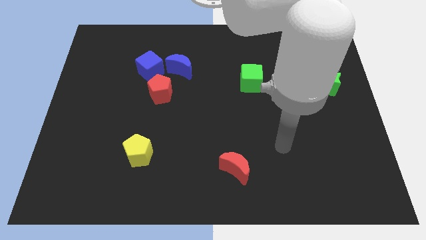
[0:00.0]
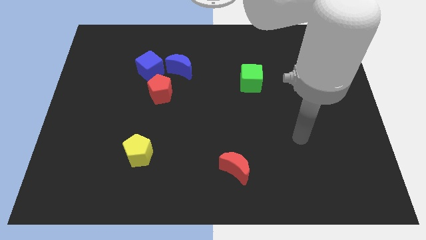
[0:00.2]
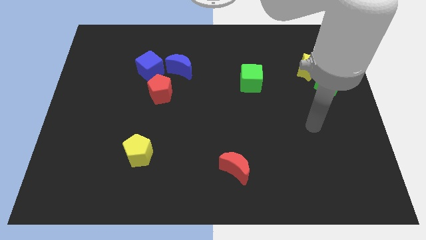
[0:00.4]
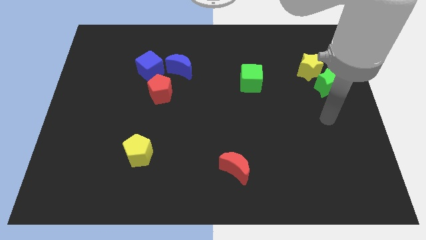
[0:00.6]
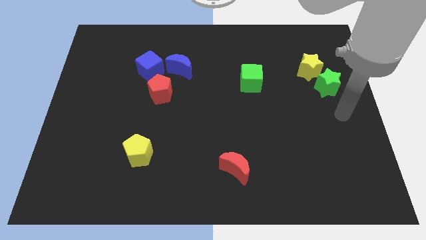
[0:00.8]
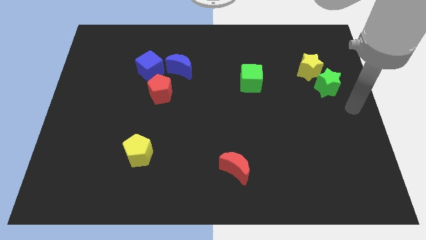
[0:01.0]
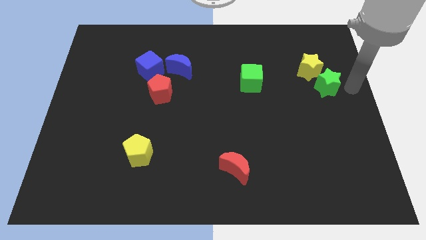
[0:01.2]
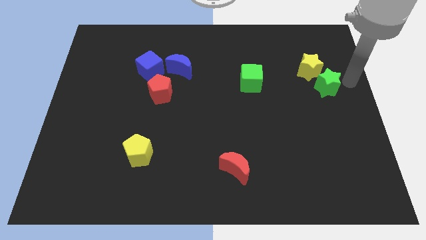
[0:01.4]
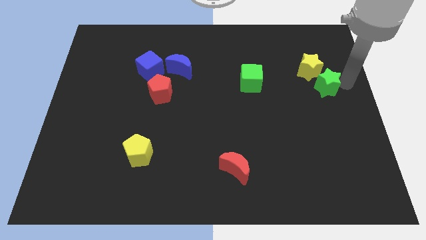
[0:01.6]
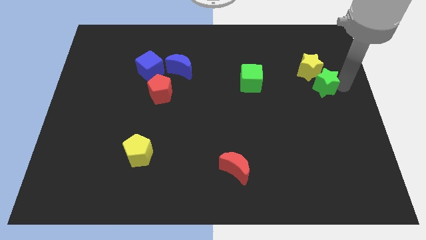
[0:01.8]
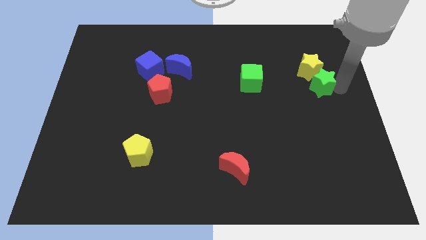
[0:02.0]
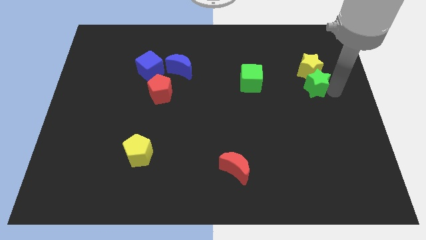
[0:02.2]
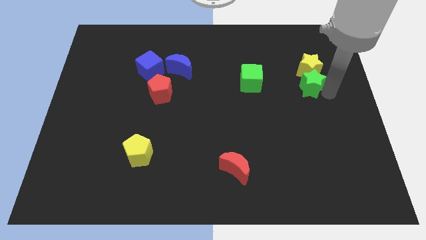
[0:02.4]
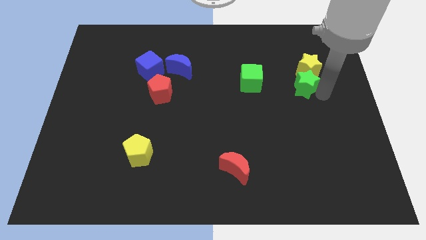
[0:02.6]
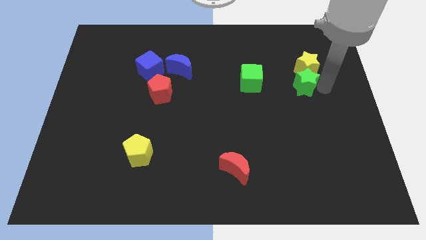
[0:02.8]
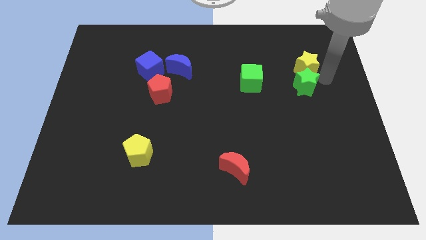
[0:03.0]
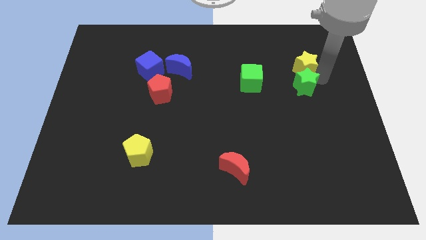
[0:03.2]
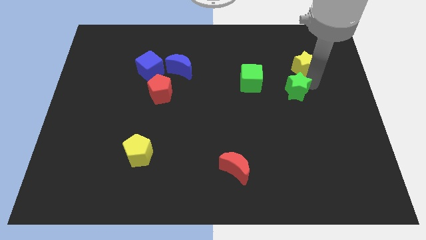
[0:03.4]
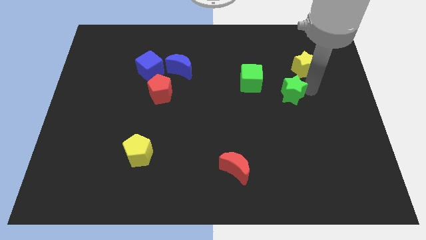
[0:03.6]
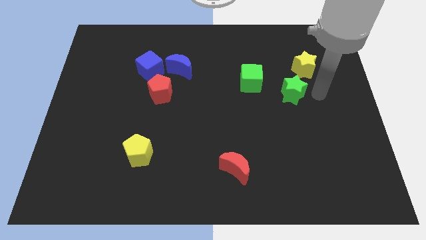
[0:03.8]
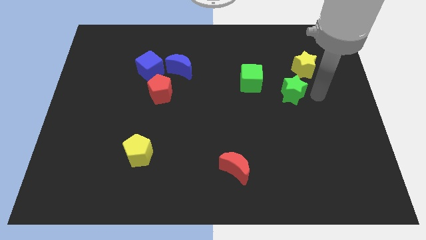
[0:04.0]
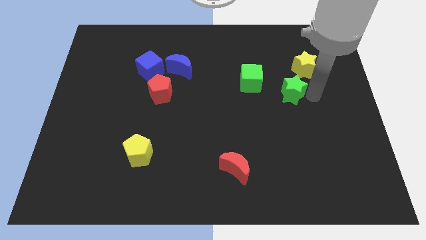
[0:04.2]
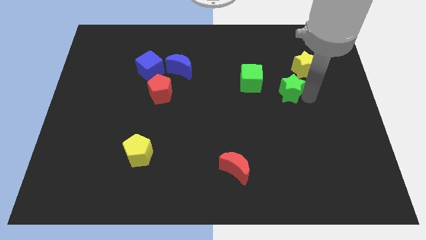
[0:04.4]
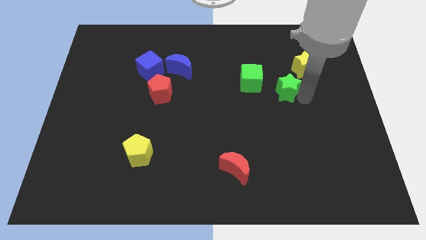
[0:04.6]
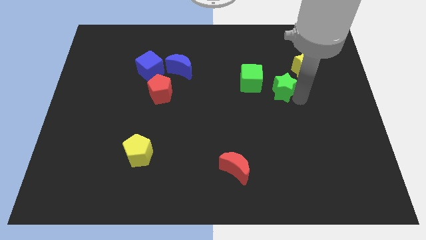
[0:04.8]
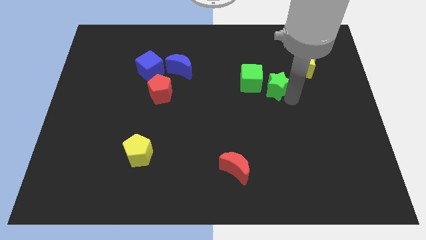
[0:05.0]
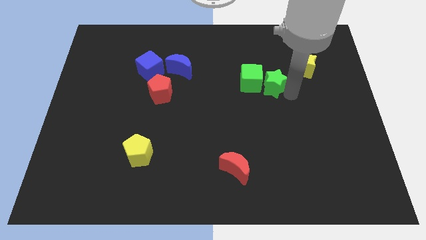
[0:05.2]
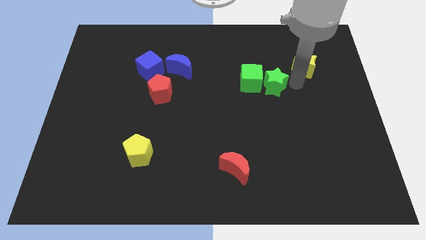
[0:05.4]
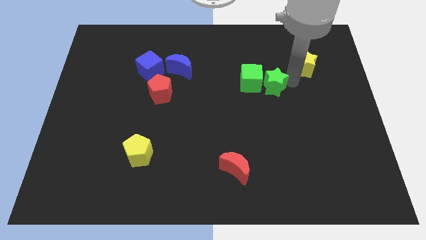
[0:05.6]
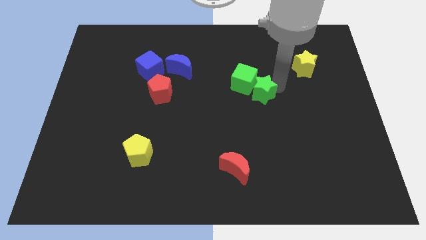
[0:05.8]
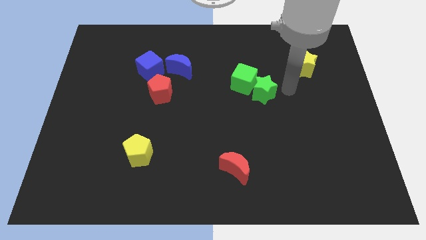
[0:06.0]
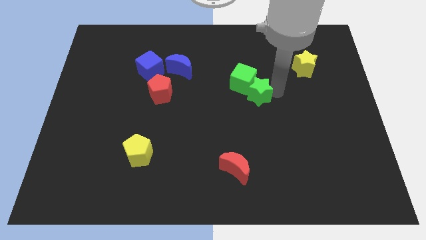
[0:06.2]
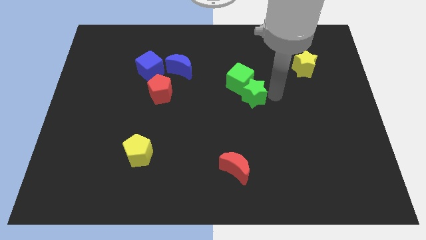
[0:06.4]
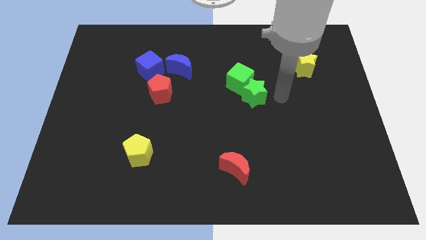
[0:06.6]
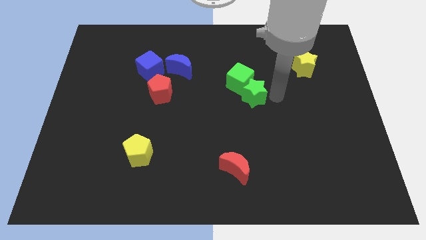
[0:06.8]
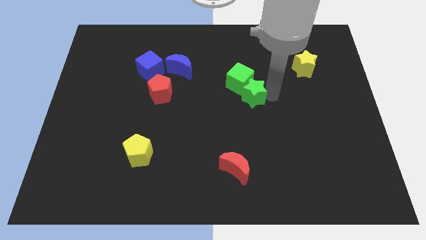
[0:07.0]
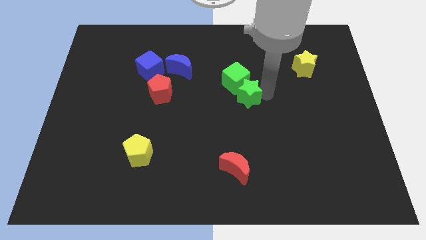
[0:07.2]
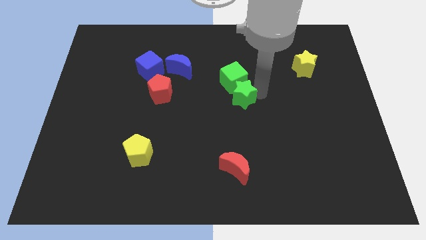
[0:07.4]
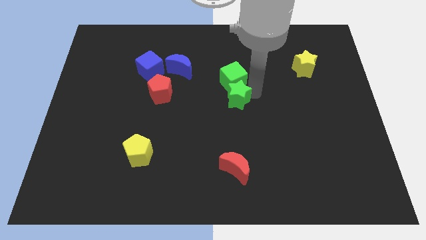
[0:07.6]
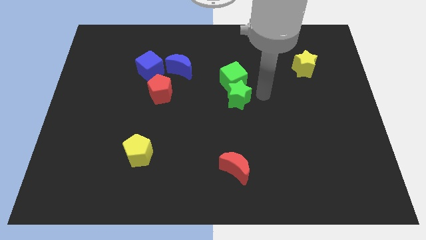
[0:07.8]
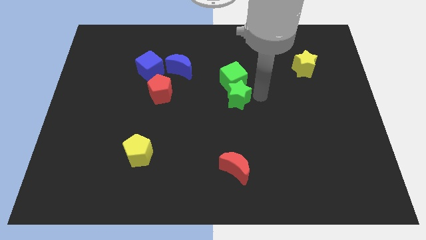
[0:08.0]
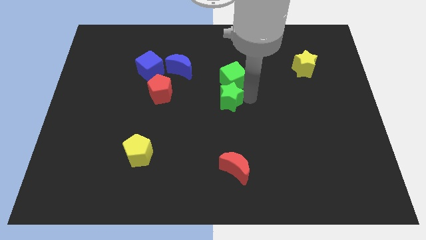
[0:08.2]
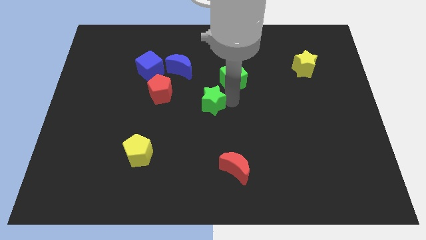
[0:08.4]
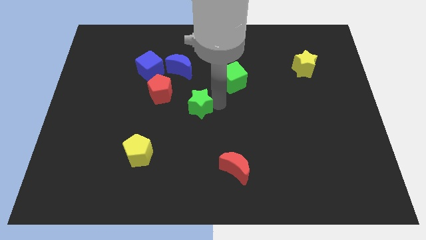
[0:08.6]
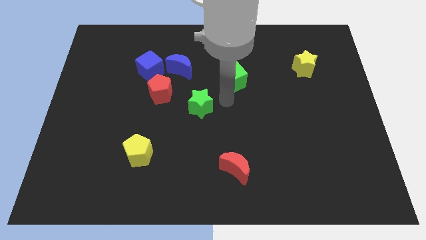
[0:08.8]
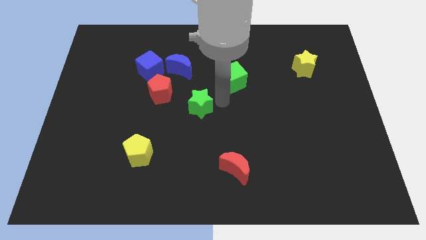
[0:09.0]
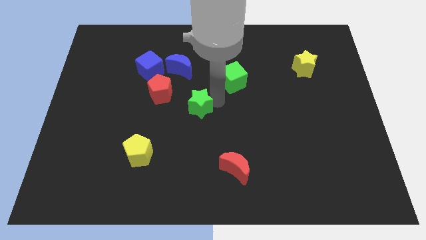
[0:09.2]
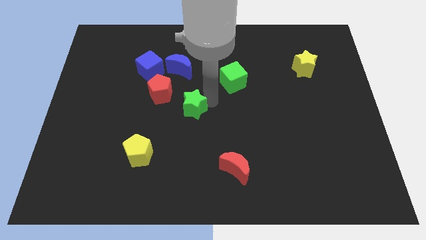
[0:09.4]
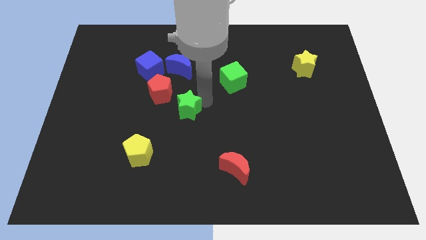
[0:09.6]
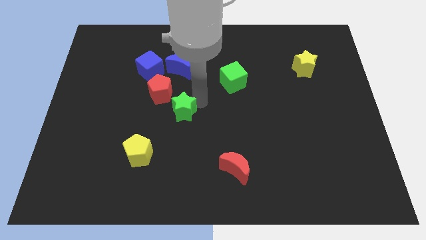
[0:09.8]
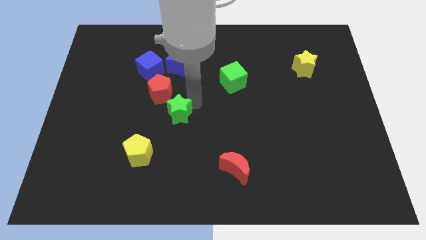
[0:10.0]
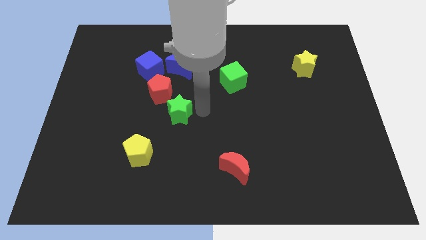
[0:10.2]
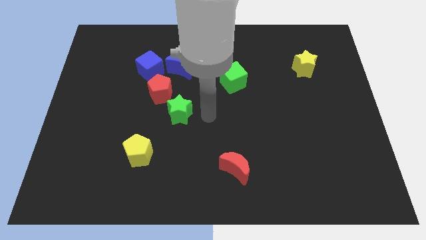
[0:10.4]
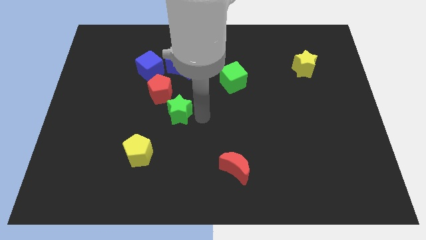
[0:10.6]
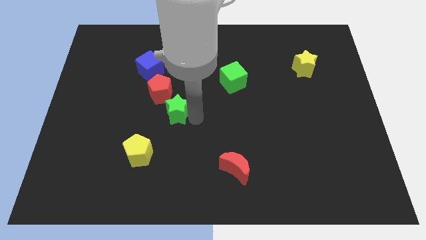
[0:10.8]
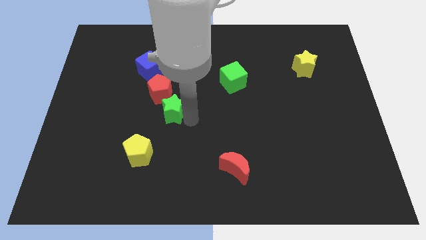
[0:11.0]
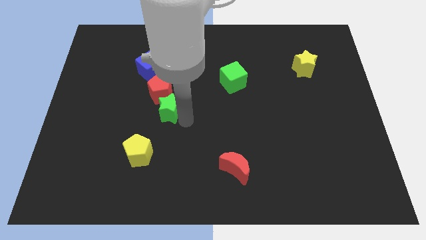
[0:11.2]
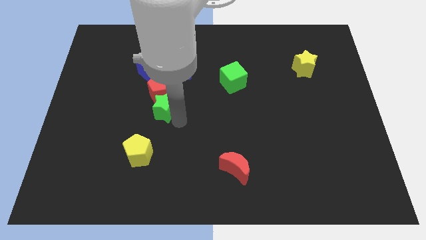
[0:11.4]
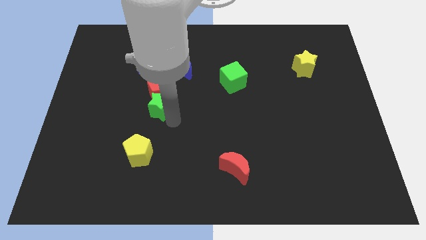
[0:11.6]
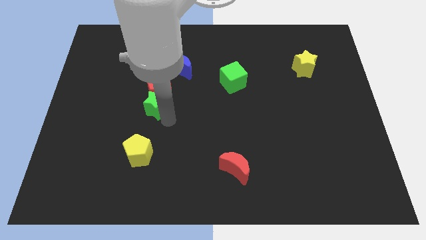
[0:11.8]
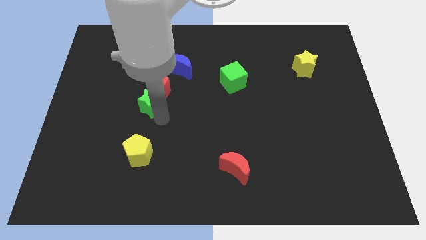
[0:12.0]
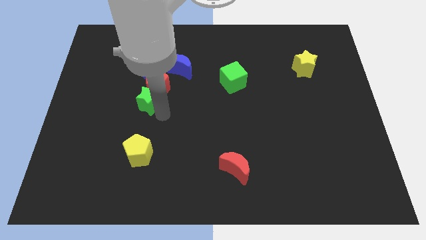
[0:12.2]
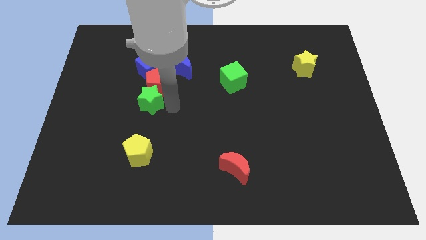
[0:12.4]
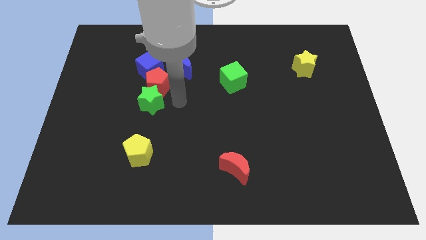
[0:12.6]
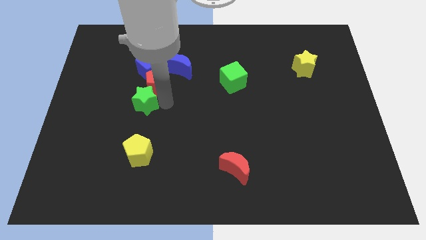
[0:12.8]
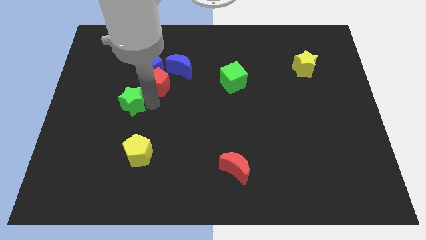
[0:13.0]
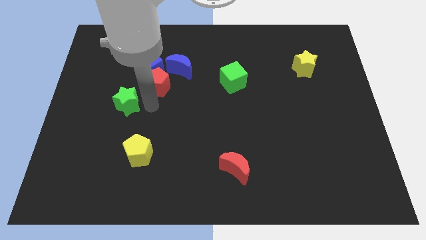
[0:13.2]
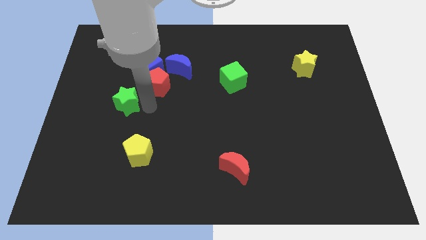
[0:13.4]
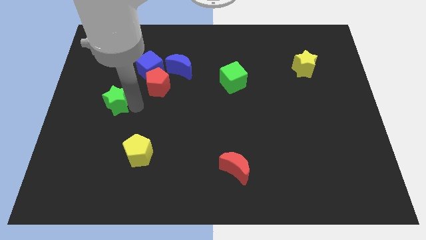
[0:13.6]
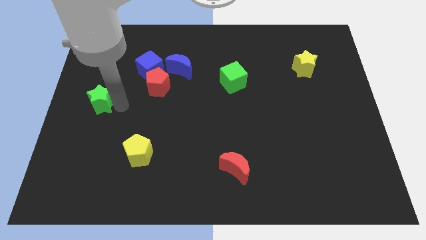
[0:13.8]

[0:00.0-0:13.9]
put the green star to the center left
